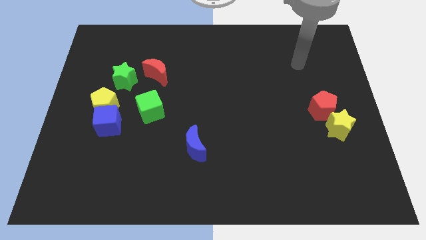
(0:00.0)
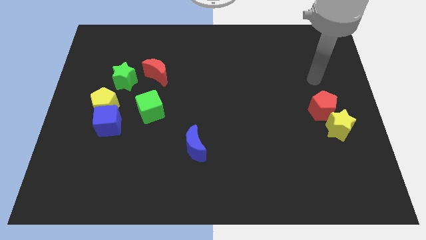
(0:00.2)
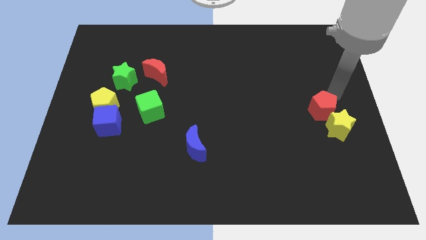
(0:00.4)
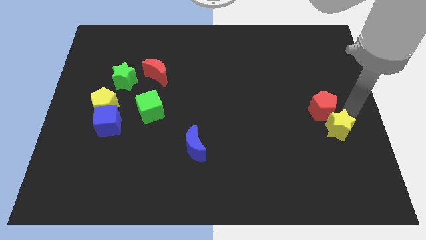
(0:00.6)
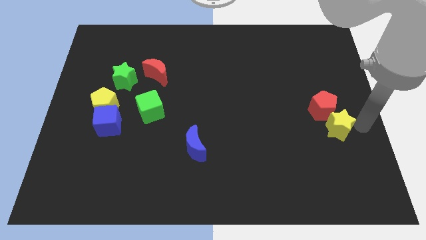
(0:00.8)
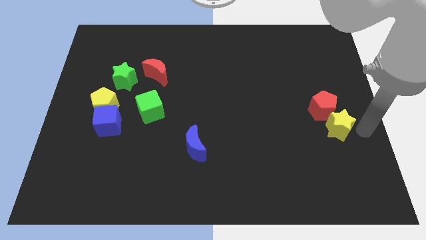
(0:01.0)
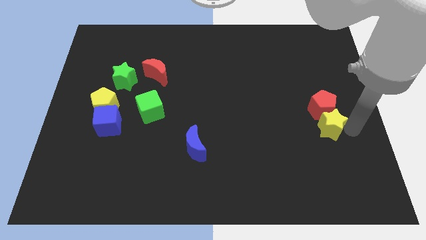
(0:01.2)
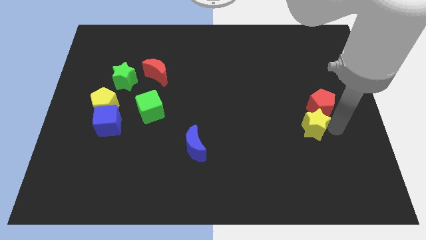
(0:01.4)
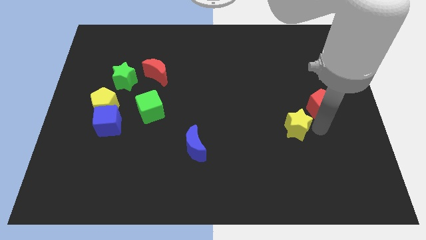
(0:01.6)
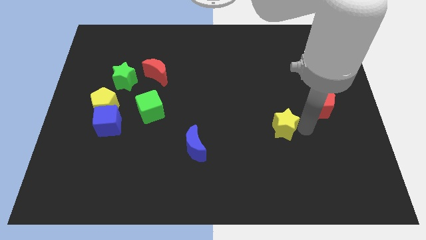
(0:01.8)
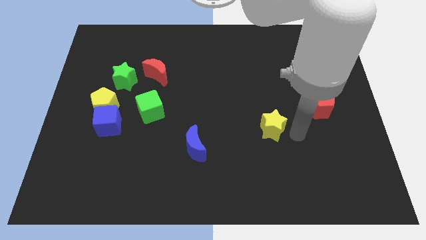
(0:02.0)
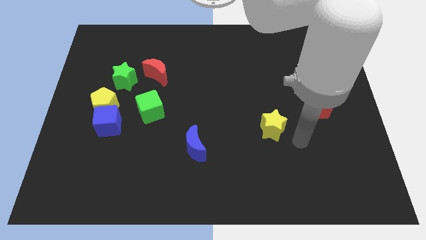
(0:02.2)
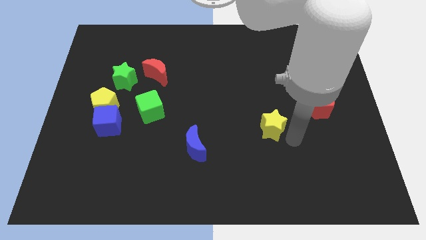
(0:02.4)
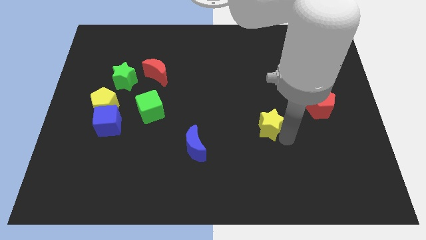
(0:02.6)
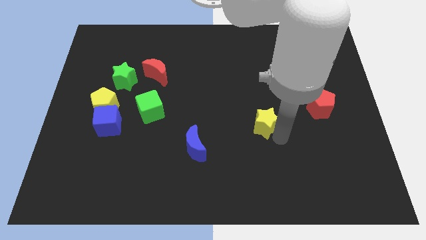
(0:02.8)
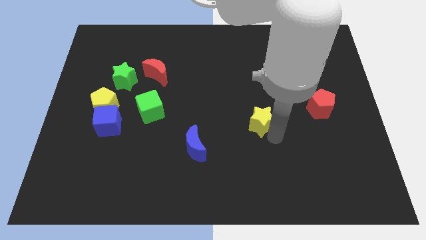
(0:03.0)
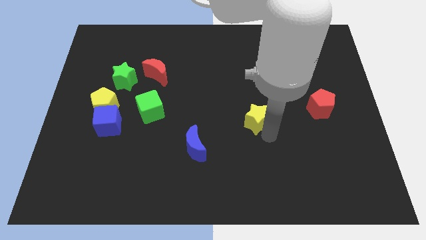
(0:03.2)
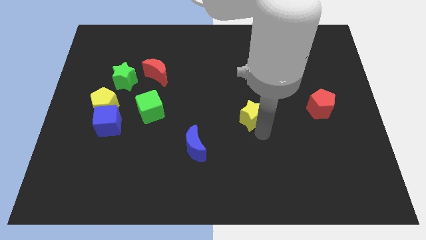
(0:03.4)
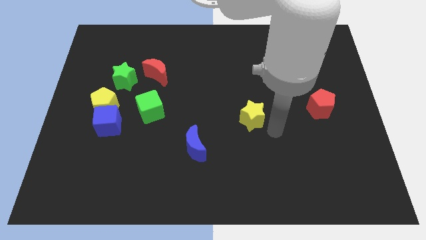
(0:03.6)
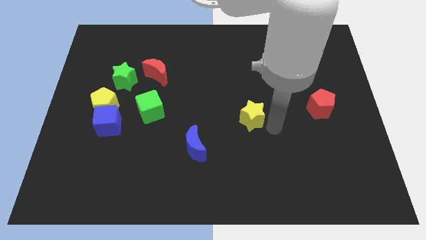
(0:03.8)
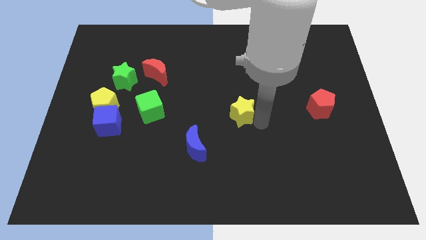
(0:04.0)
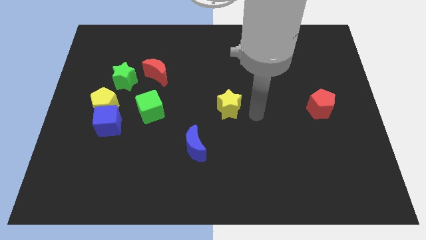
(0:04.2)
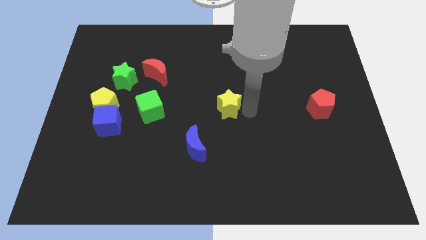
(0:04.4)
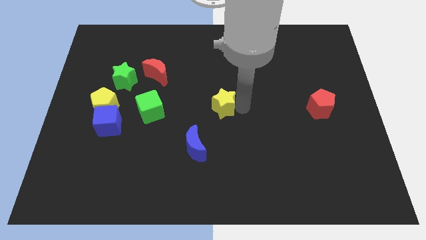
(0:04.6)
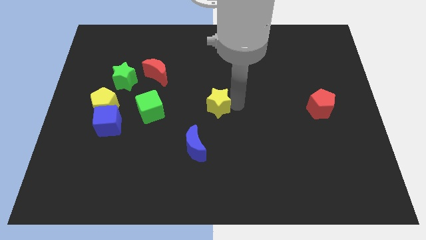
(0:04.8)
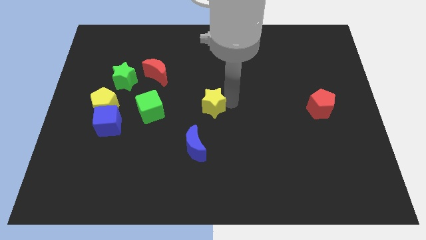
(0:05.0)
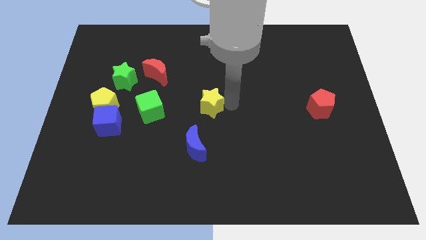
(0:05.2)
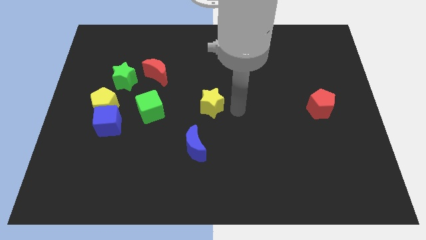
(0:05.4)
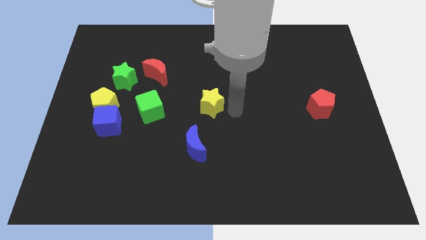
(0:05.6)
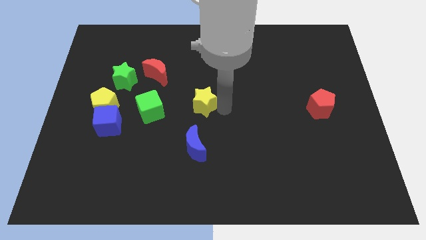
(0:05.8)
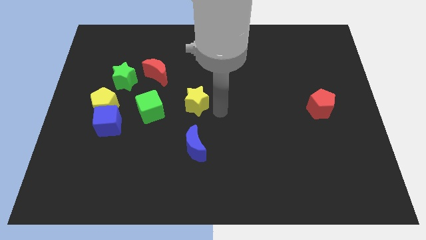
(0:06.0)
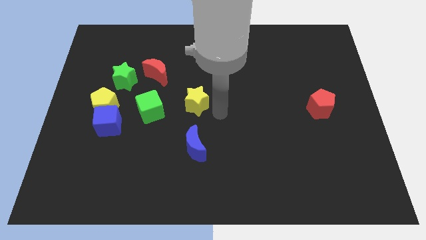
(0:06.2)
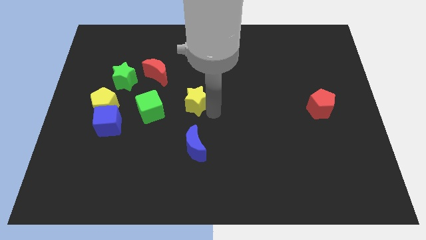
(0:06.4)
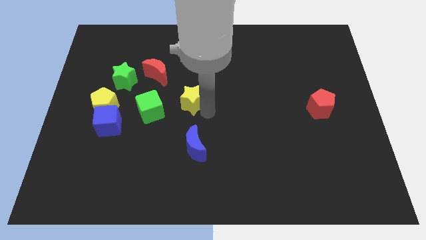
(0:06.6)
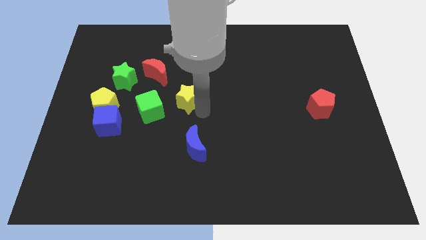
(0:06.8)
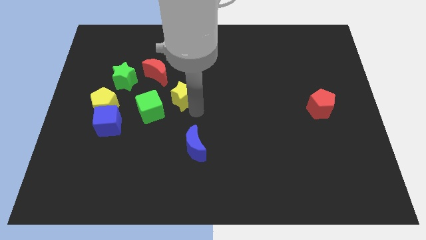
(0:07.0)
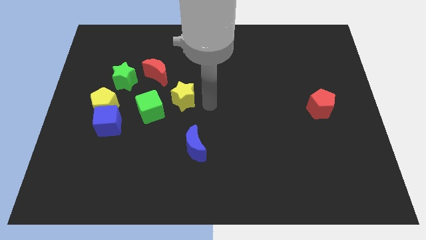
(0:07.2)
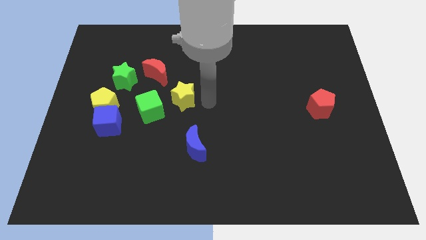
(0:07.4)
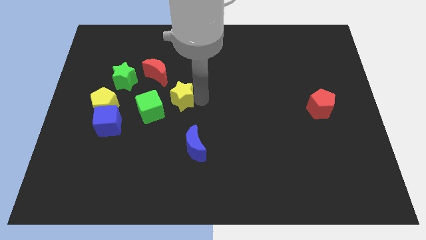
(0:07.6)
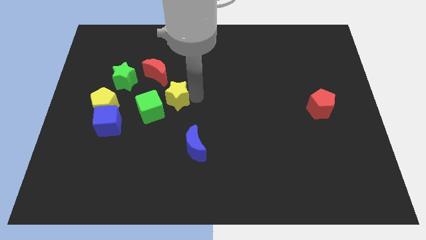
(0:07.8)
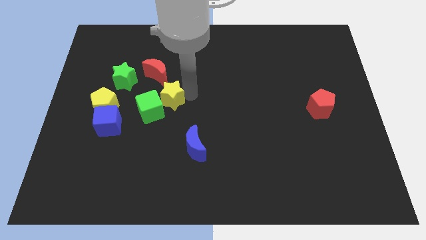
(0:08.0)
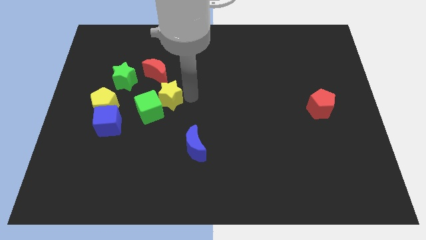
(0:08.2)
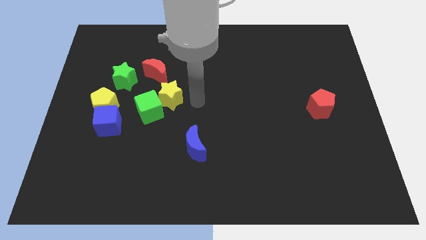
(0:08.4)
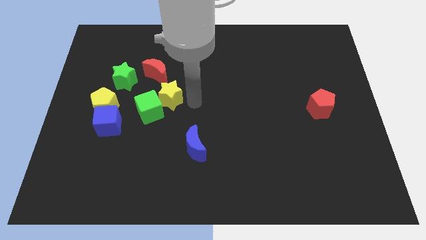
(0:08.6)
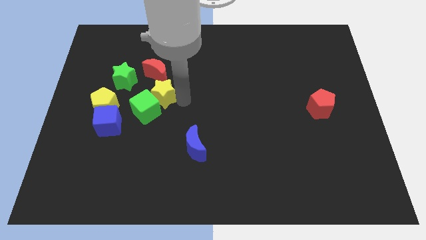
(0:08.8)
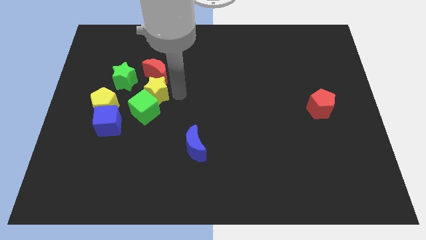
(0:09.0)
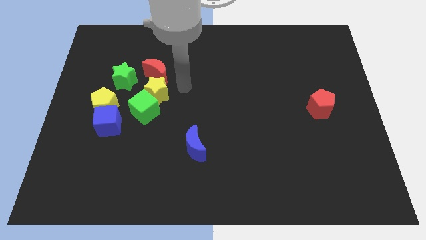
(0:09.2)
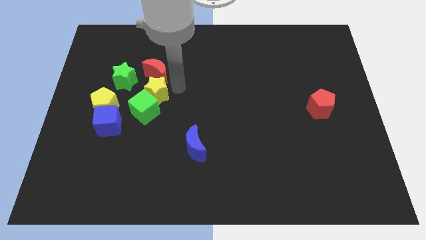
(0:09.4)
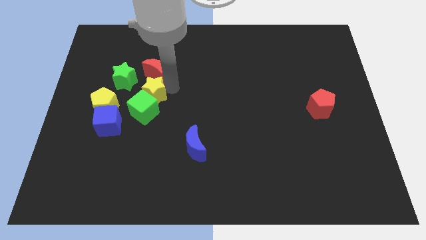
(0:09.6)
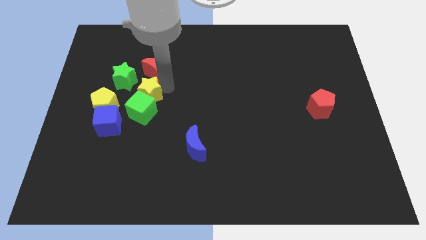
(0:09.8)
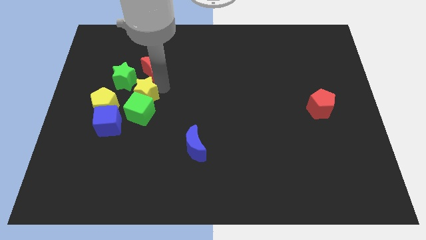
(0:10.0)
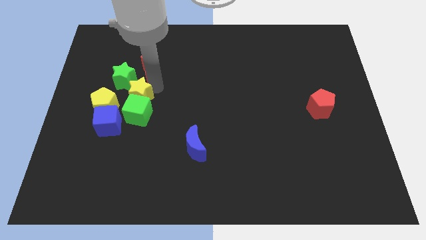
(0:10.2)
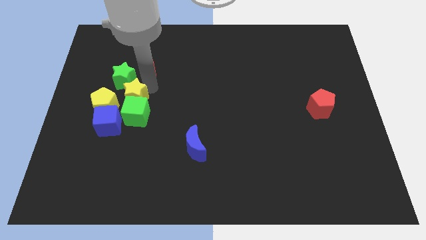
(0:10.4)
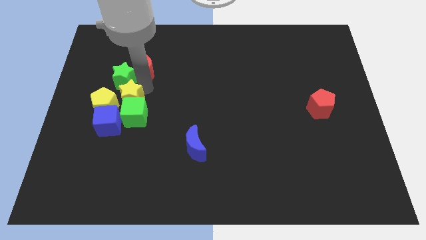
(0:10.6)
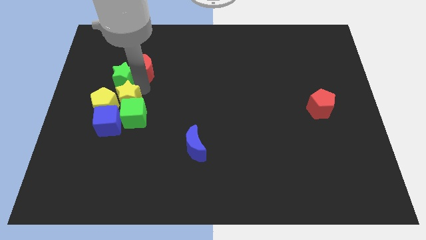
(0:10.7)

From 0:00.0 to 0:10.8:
push the yellow star close to the yellow pentagon

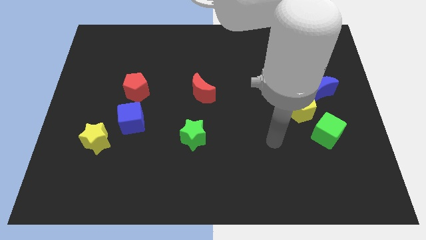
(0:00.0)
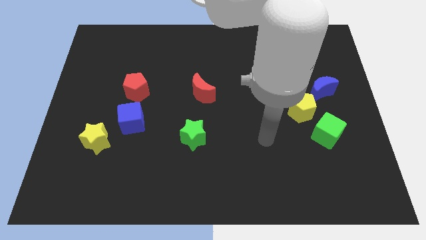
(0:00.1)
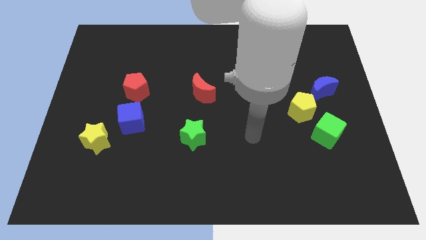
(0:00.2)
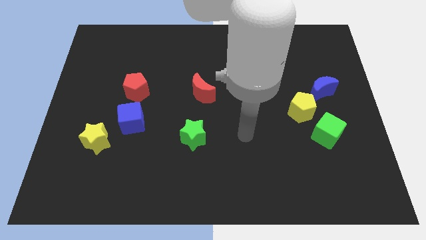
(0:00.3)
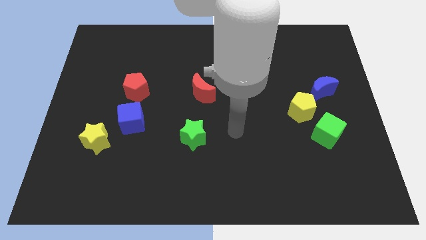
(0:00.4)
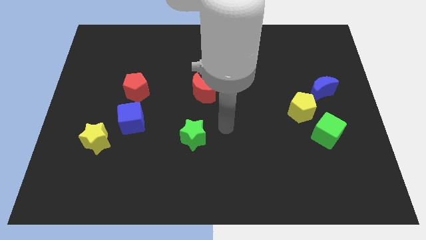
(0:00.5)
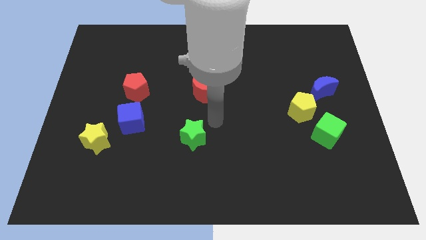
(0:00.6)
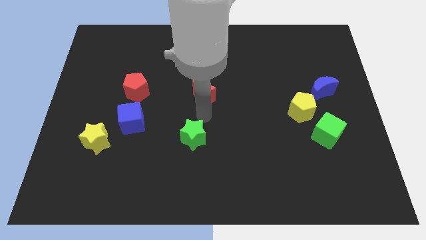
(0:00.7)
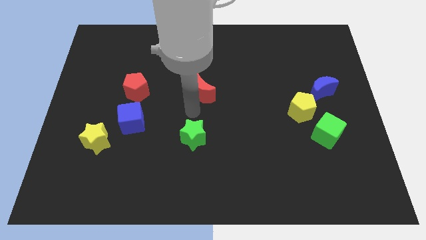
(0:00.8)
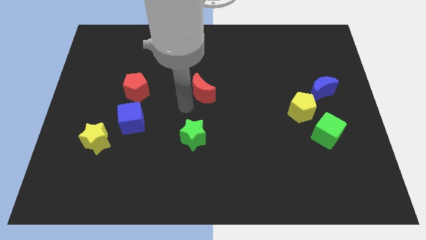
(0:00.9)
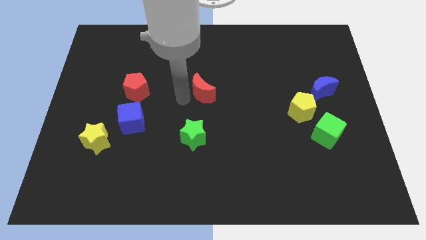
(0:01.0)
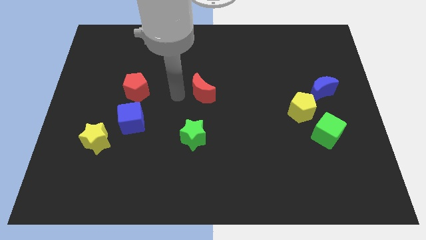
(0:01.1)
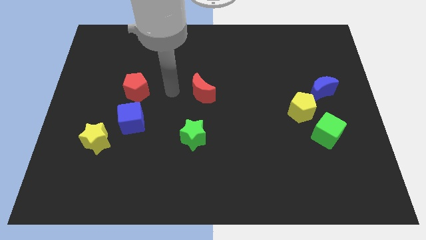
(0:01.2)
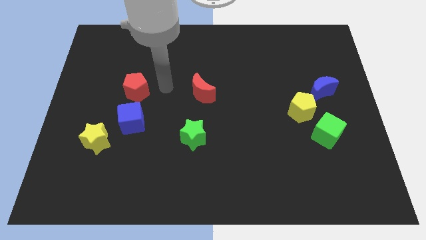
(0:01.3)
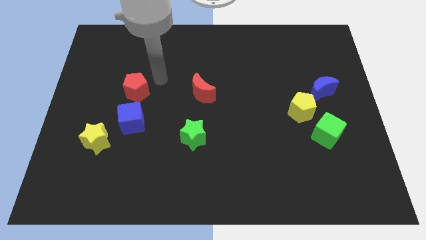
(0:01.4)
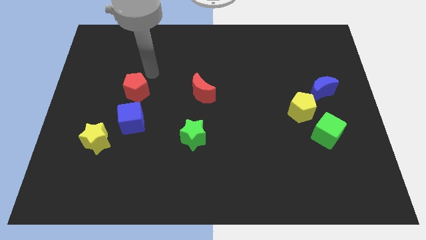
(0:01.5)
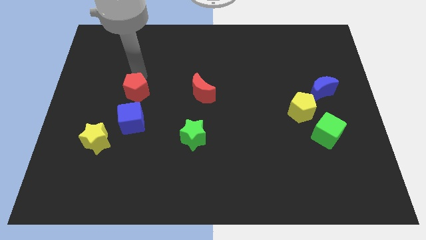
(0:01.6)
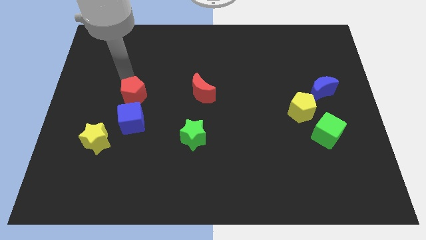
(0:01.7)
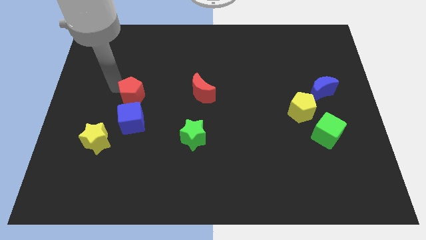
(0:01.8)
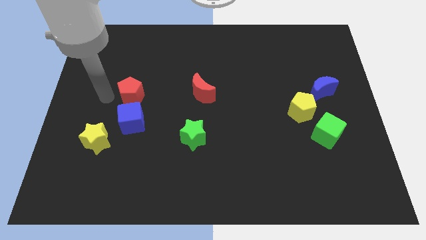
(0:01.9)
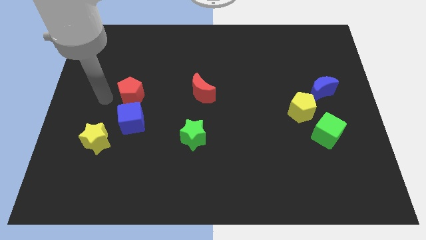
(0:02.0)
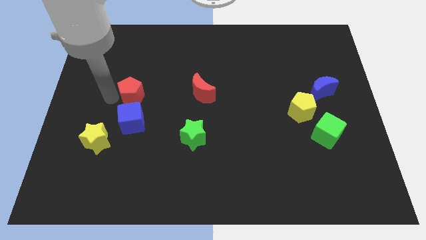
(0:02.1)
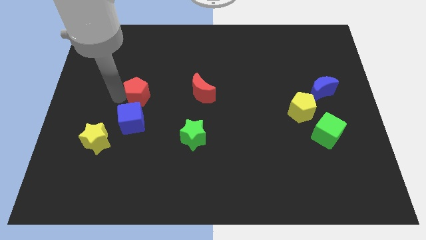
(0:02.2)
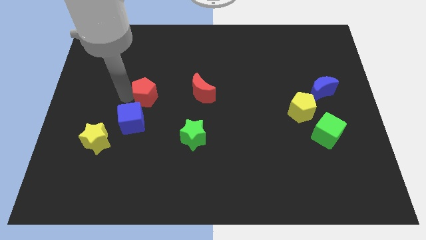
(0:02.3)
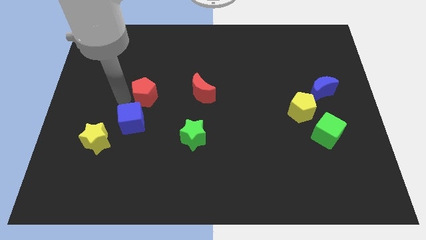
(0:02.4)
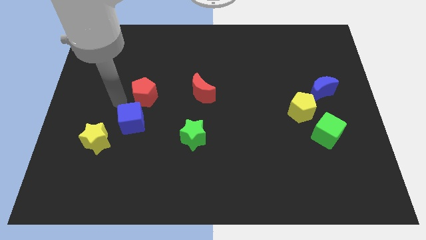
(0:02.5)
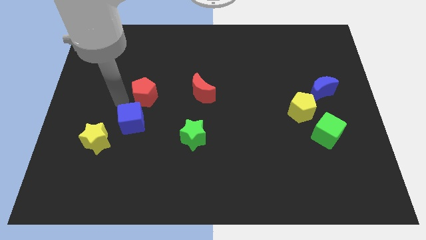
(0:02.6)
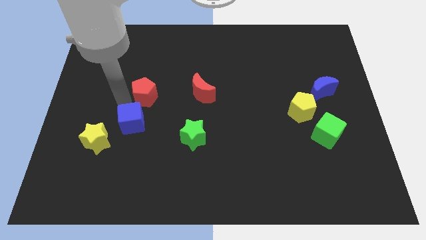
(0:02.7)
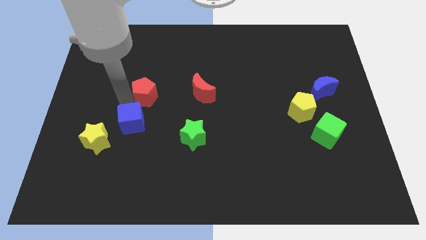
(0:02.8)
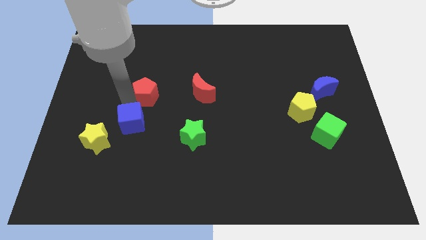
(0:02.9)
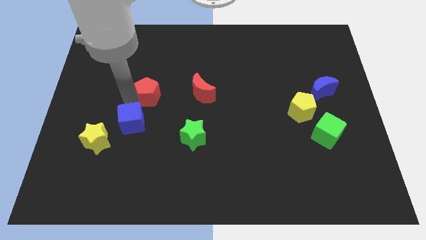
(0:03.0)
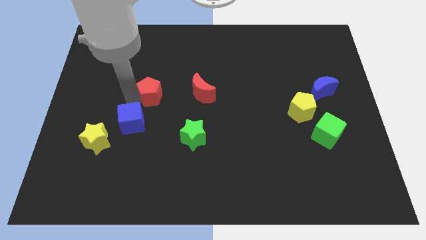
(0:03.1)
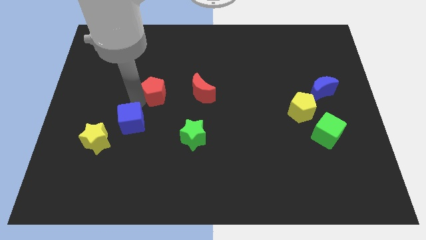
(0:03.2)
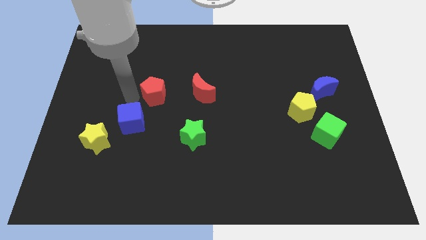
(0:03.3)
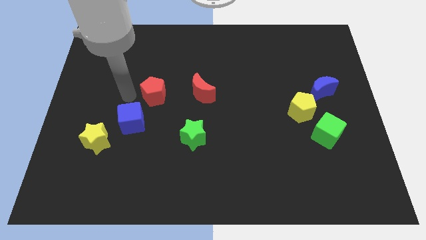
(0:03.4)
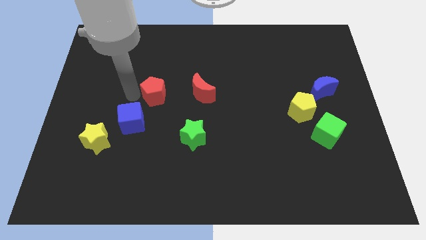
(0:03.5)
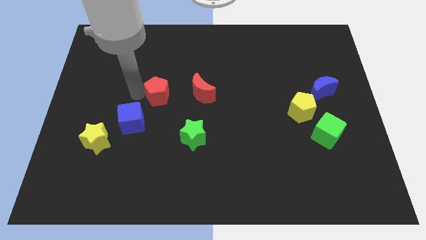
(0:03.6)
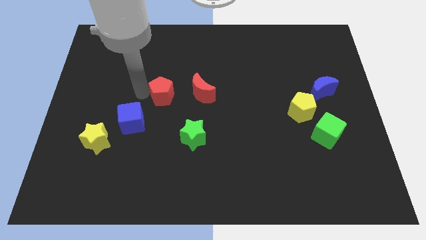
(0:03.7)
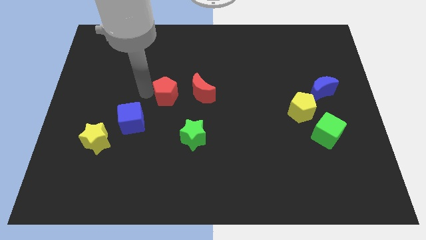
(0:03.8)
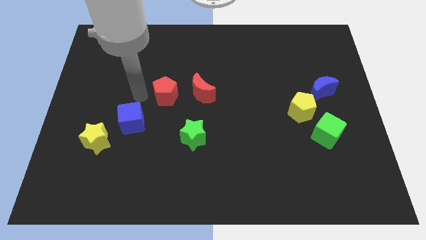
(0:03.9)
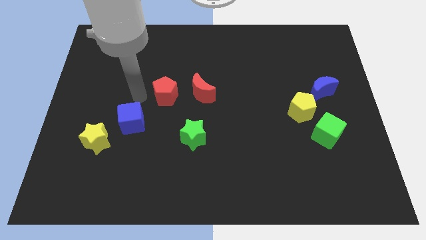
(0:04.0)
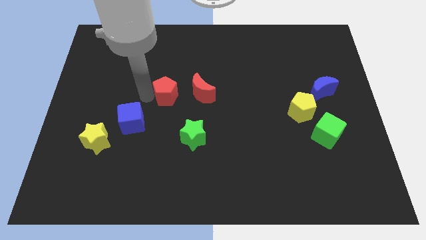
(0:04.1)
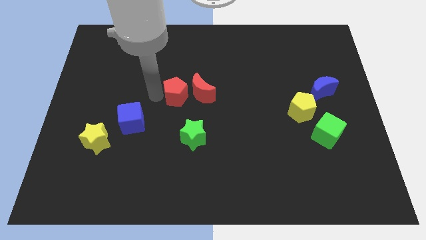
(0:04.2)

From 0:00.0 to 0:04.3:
put the red pentagon next to the red moon
